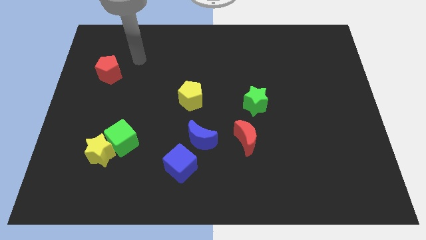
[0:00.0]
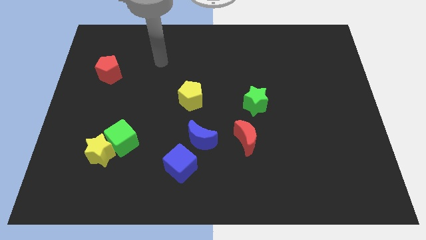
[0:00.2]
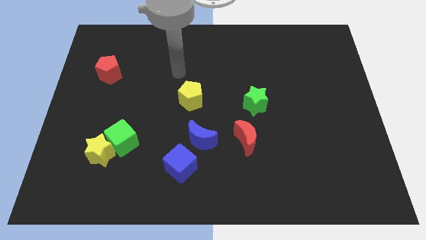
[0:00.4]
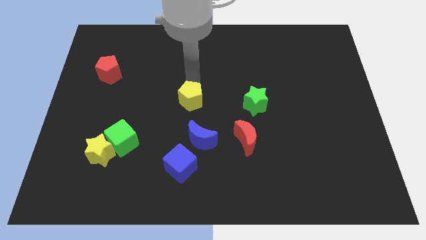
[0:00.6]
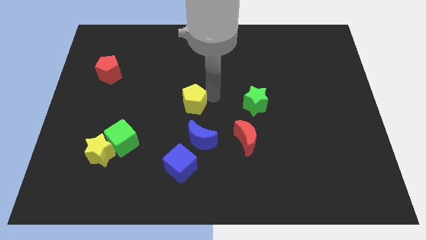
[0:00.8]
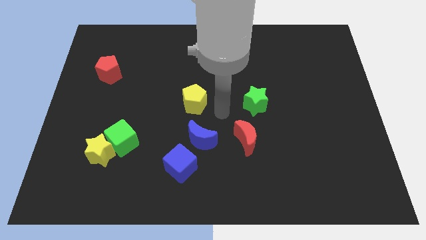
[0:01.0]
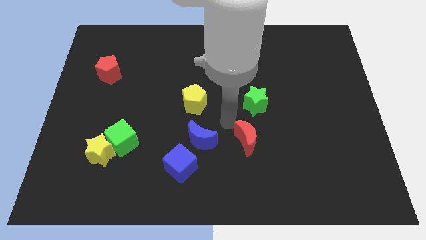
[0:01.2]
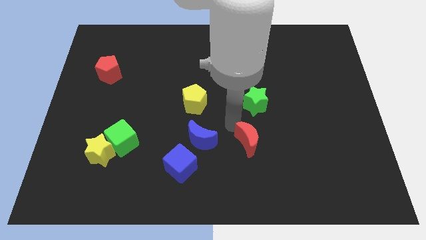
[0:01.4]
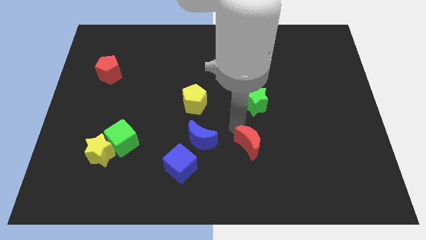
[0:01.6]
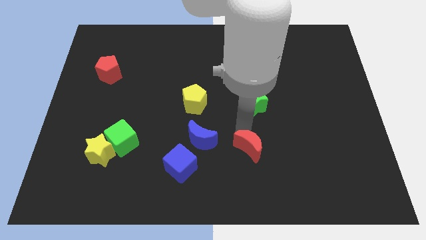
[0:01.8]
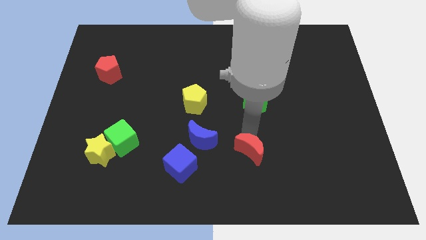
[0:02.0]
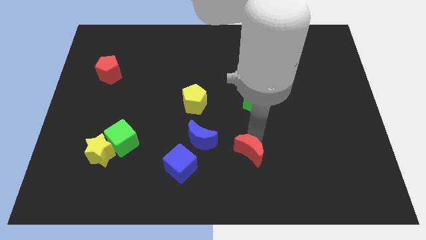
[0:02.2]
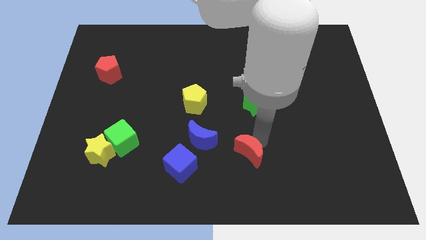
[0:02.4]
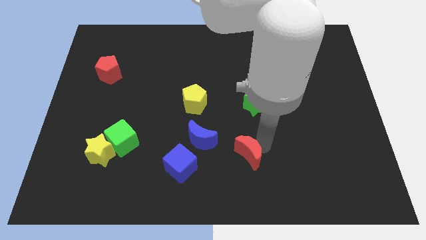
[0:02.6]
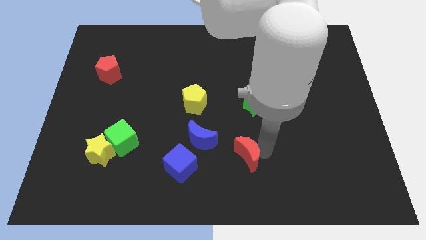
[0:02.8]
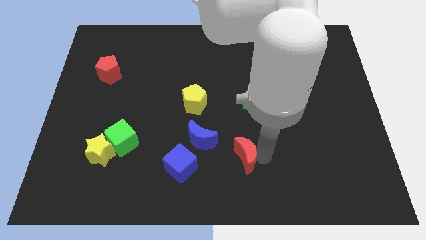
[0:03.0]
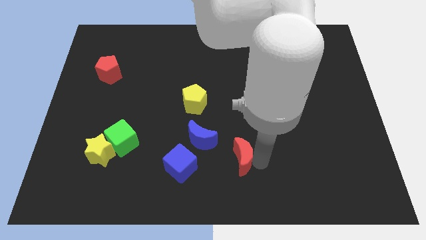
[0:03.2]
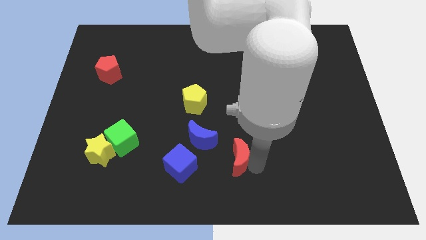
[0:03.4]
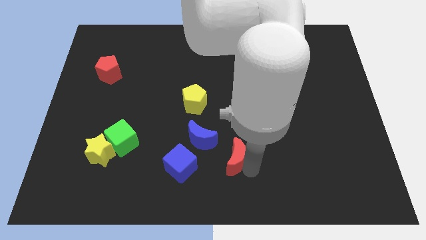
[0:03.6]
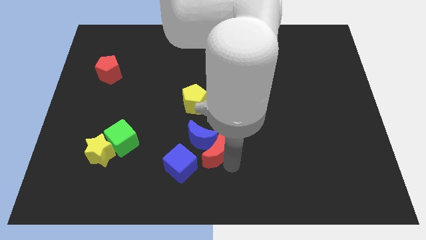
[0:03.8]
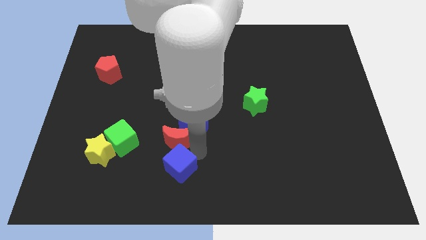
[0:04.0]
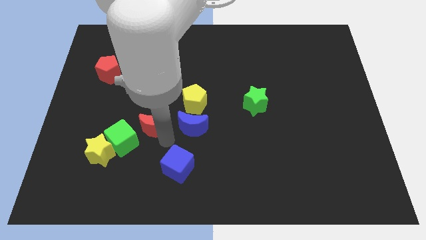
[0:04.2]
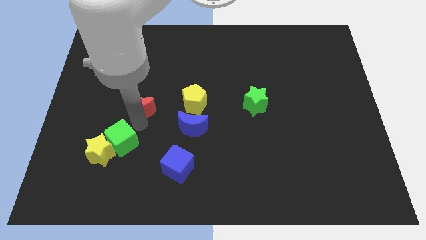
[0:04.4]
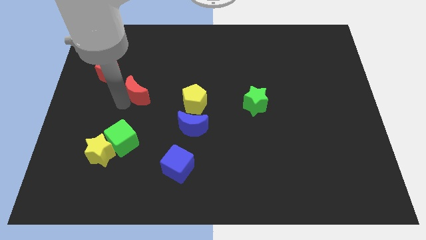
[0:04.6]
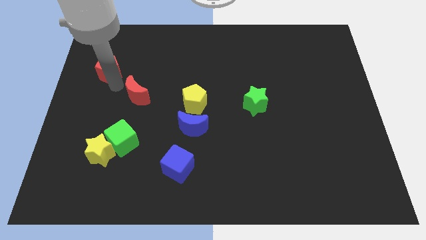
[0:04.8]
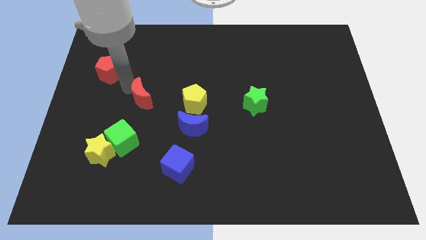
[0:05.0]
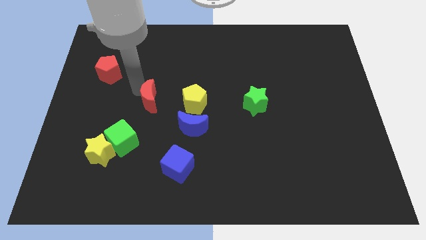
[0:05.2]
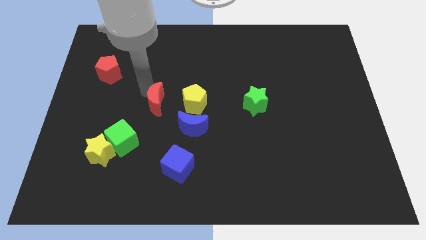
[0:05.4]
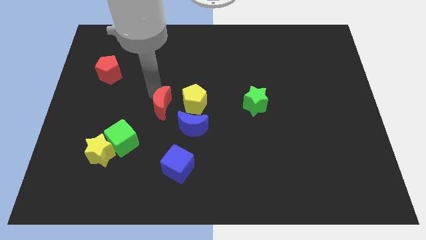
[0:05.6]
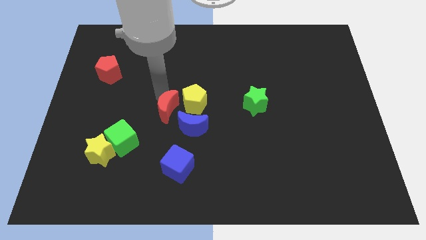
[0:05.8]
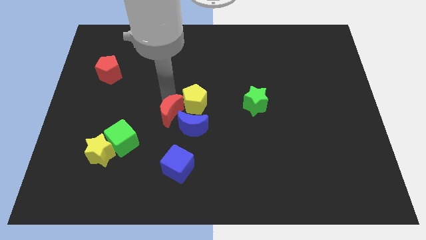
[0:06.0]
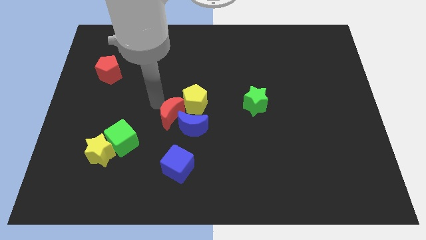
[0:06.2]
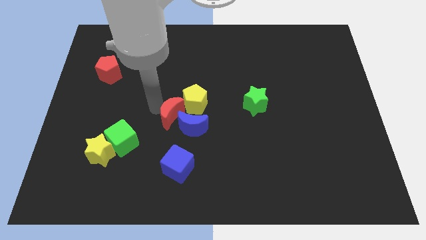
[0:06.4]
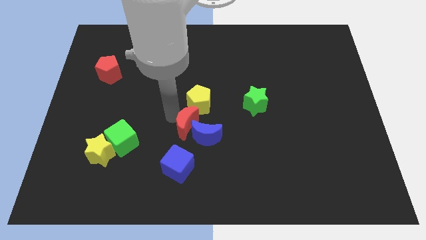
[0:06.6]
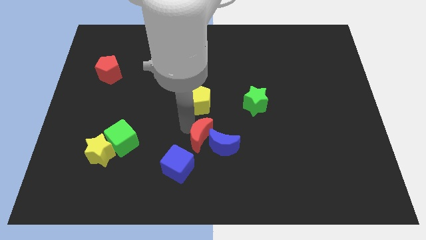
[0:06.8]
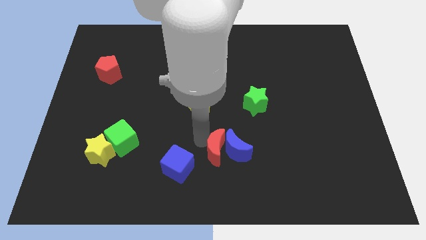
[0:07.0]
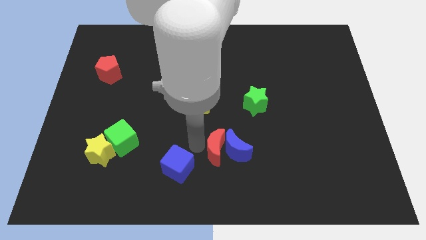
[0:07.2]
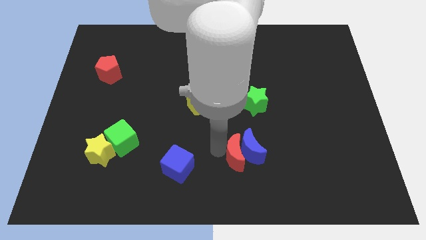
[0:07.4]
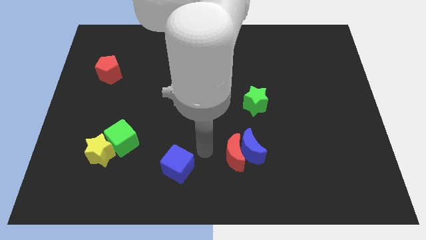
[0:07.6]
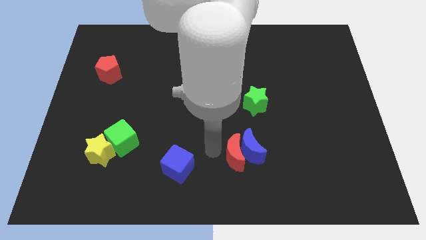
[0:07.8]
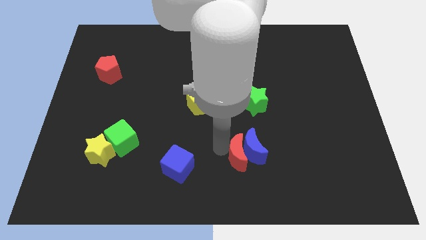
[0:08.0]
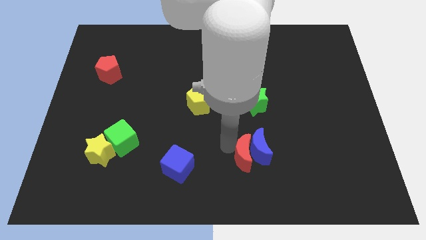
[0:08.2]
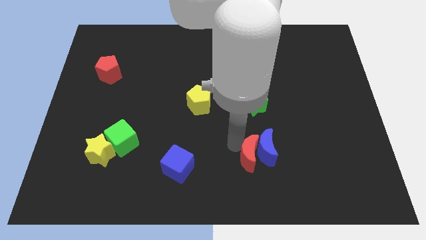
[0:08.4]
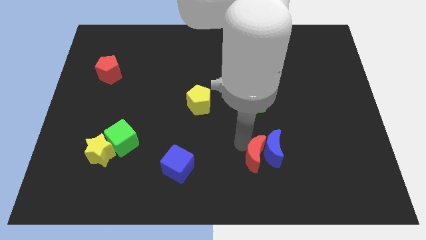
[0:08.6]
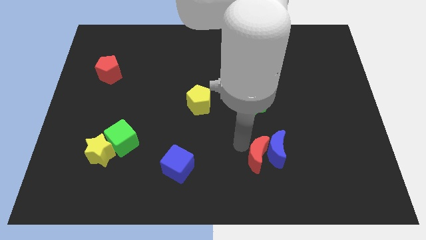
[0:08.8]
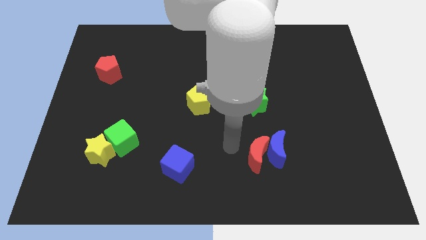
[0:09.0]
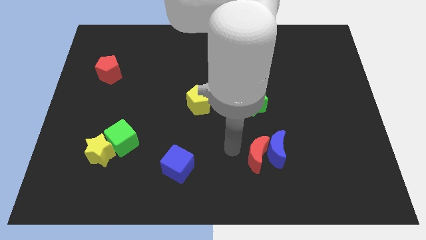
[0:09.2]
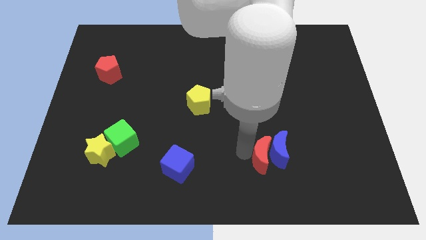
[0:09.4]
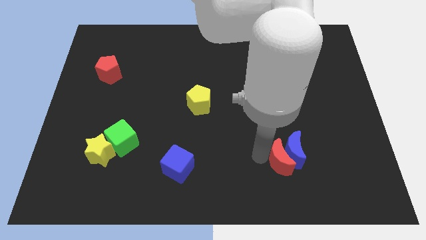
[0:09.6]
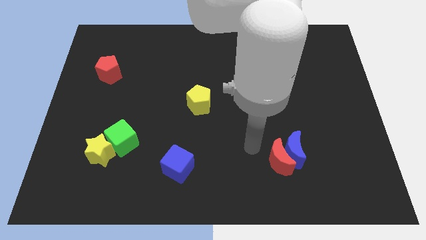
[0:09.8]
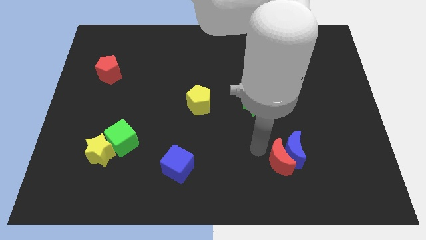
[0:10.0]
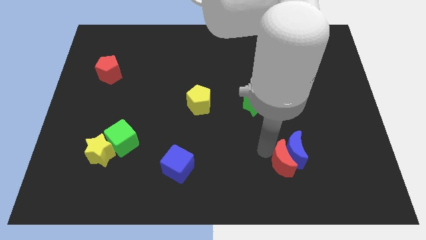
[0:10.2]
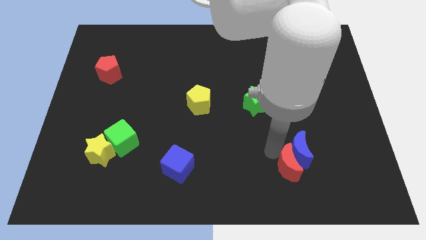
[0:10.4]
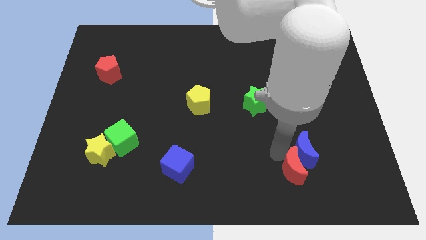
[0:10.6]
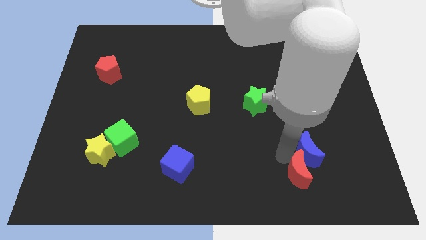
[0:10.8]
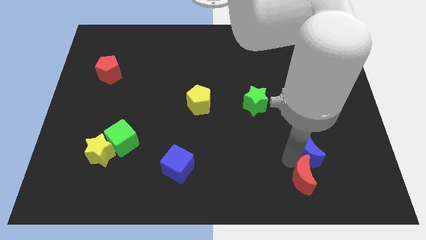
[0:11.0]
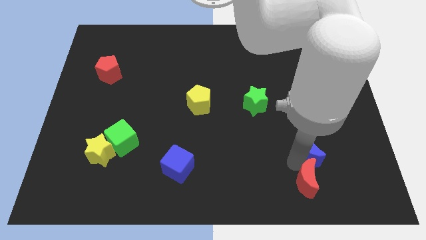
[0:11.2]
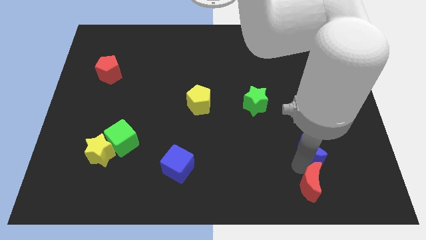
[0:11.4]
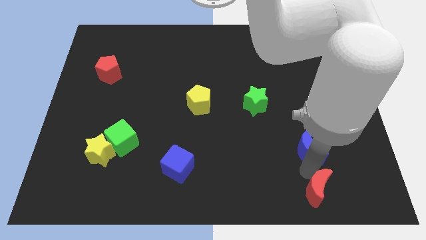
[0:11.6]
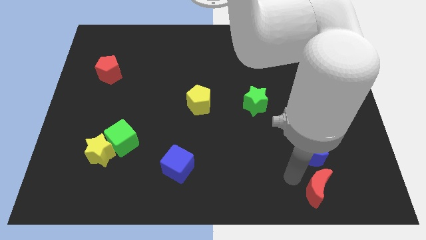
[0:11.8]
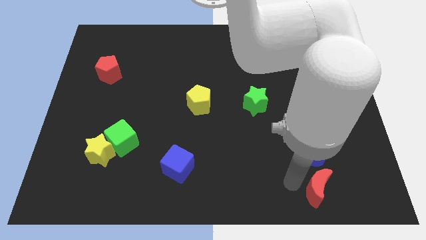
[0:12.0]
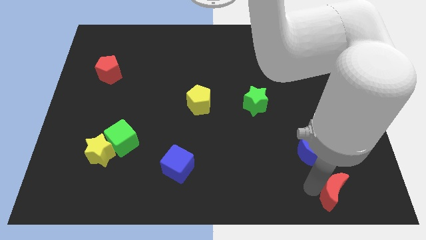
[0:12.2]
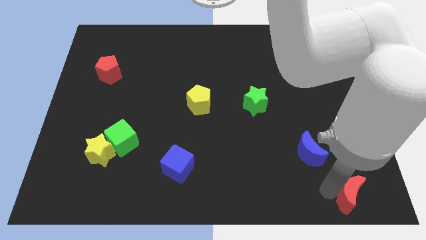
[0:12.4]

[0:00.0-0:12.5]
slide the red moon to the bottom right corner
